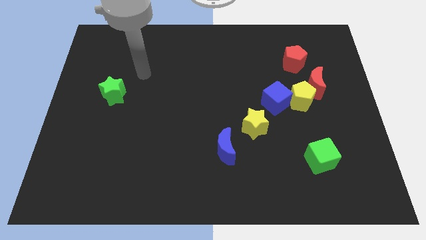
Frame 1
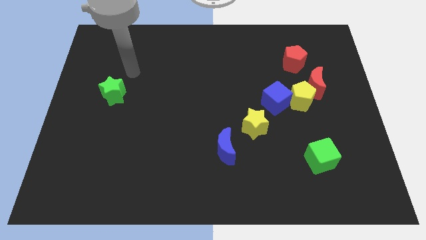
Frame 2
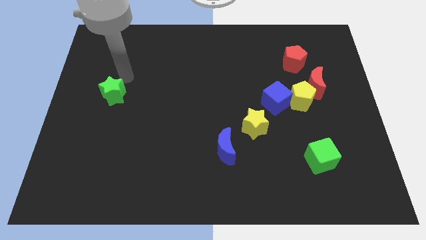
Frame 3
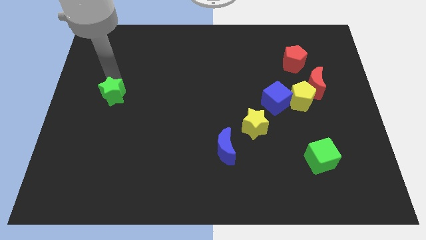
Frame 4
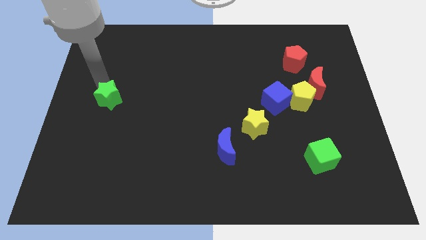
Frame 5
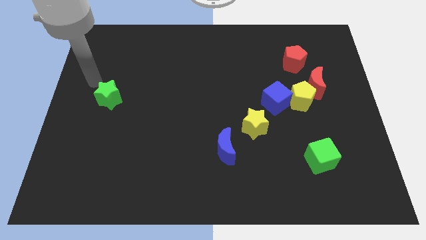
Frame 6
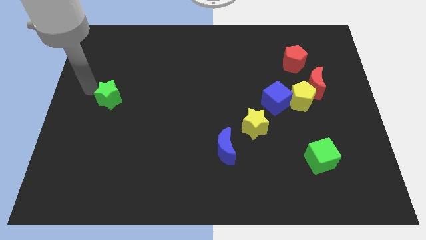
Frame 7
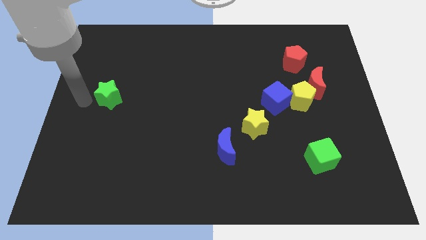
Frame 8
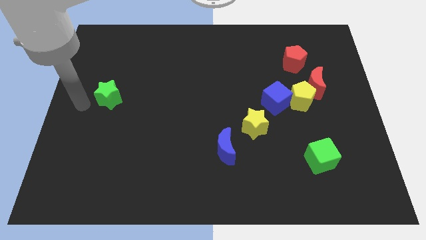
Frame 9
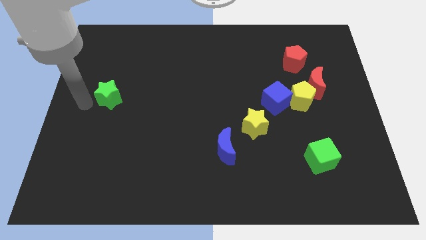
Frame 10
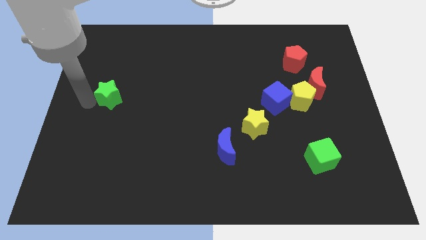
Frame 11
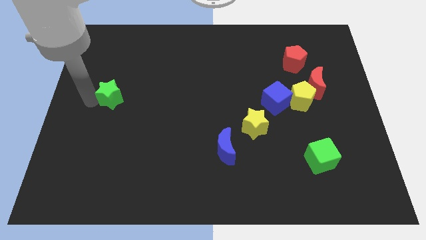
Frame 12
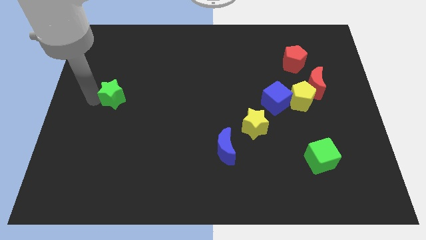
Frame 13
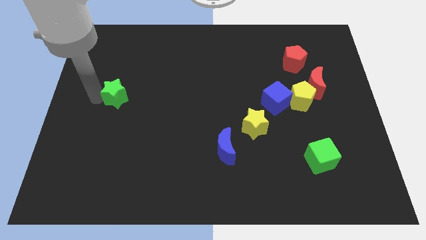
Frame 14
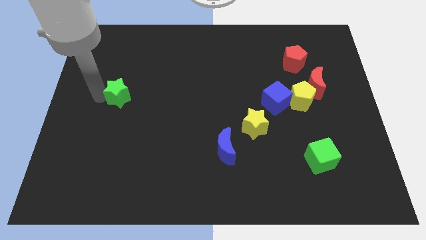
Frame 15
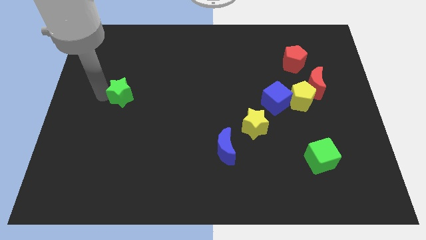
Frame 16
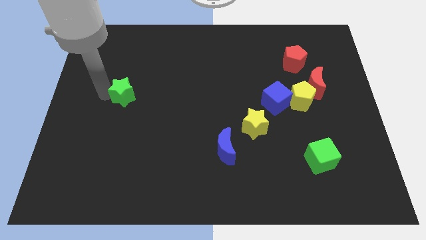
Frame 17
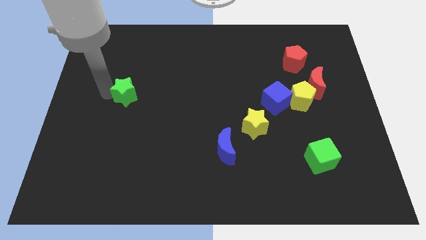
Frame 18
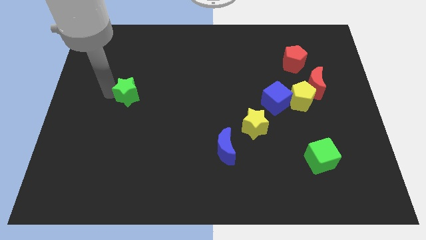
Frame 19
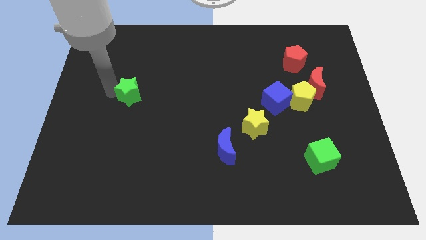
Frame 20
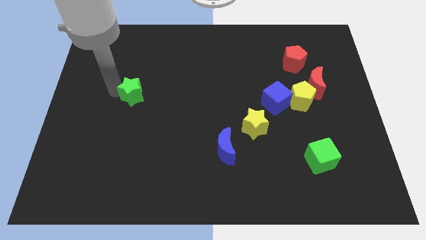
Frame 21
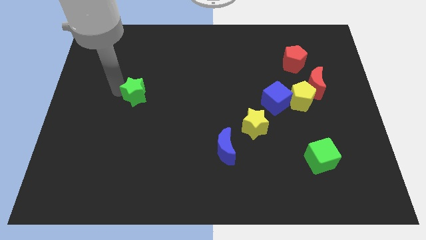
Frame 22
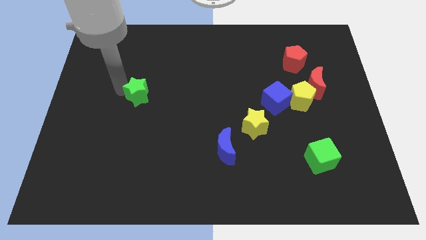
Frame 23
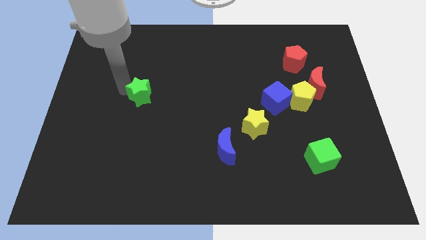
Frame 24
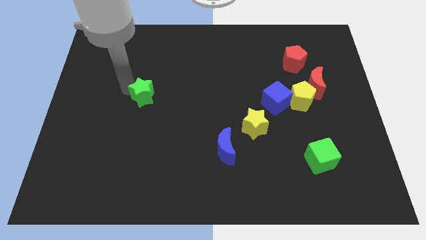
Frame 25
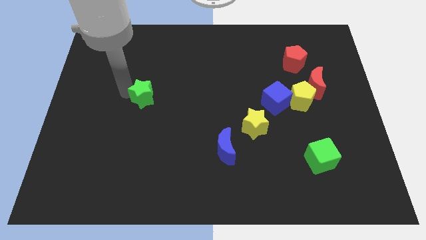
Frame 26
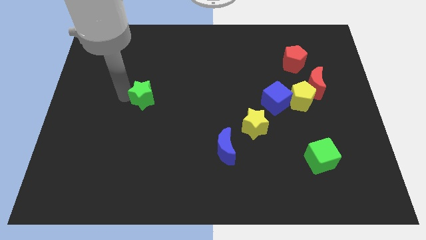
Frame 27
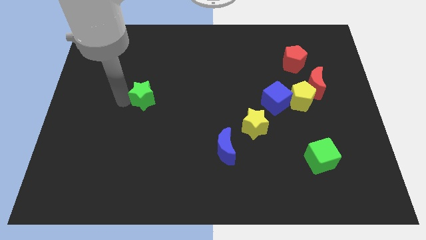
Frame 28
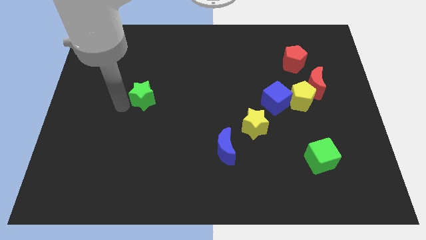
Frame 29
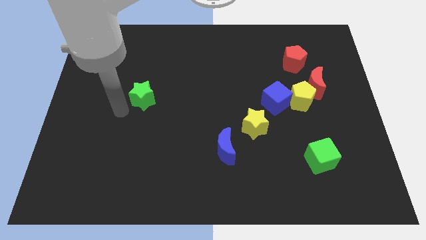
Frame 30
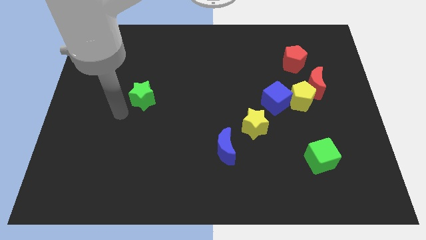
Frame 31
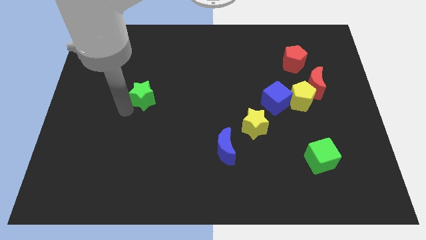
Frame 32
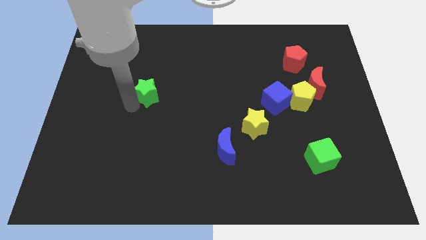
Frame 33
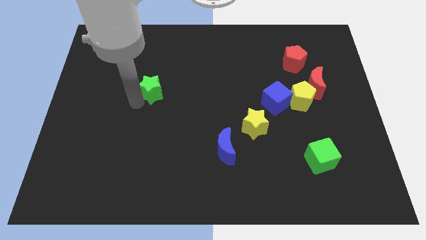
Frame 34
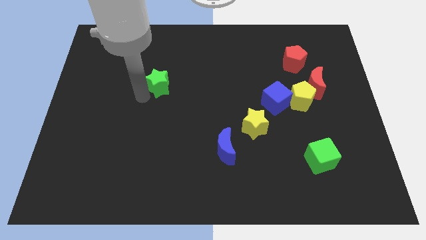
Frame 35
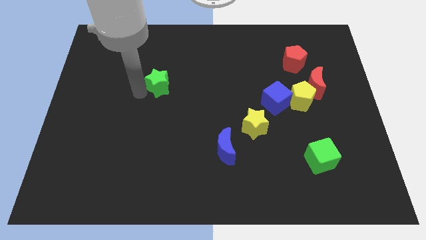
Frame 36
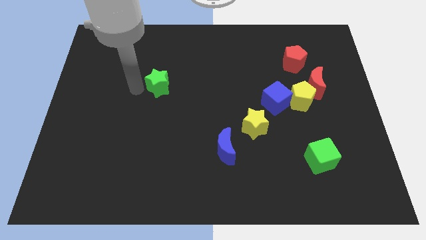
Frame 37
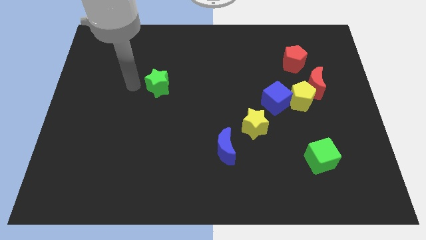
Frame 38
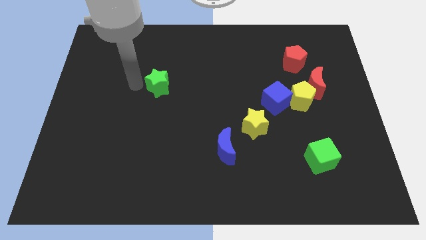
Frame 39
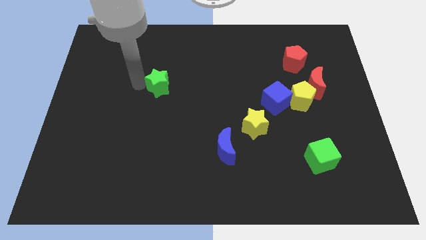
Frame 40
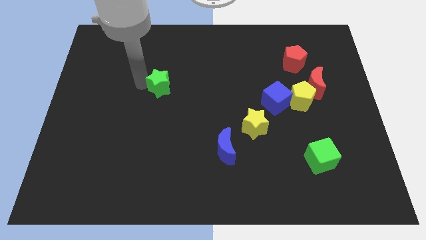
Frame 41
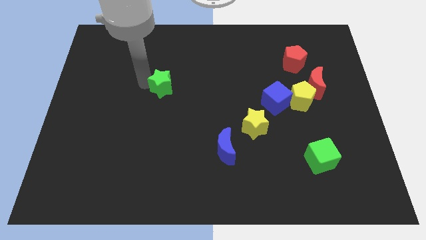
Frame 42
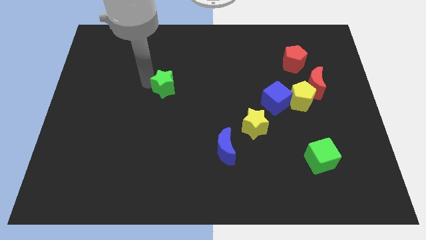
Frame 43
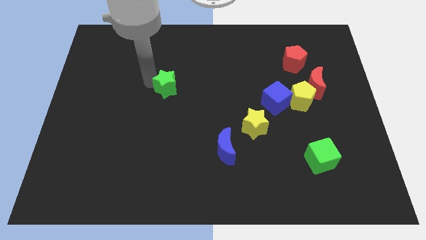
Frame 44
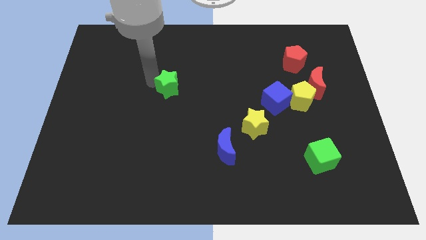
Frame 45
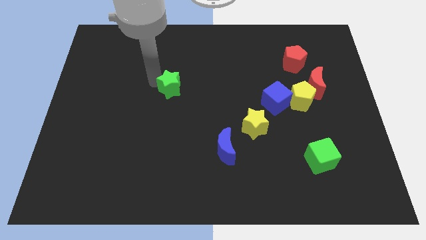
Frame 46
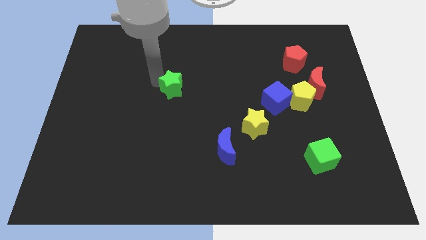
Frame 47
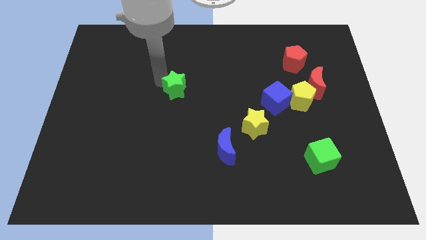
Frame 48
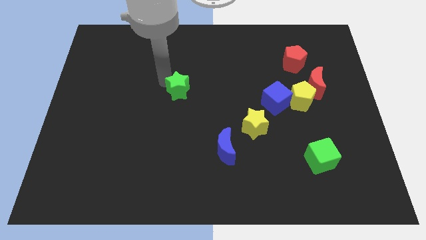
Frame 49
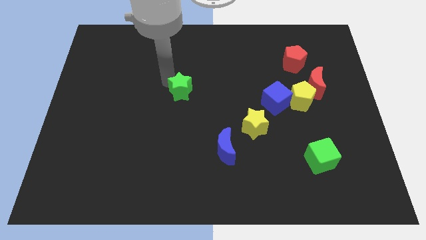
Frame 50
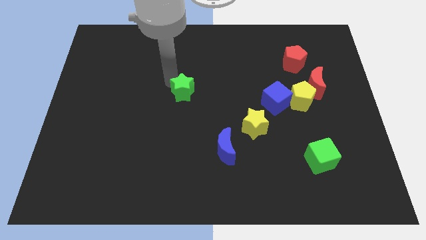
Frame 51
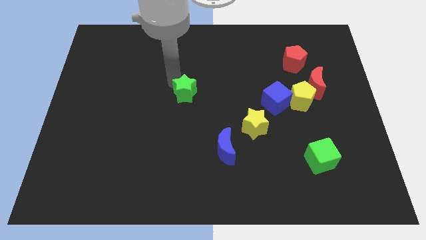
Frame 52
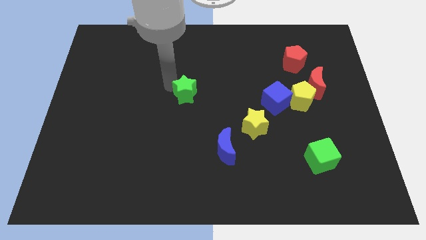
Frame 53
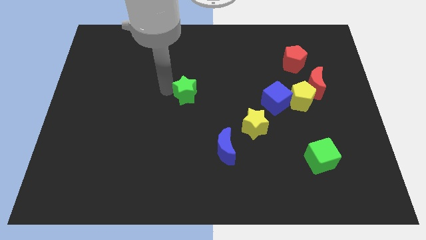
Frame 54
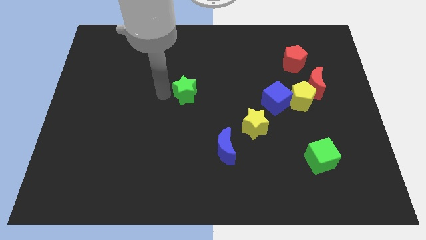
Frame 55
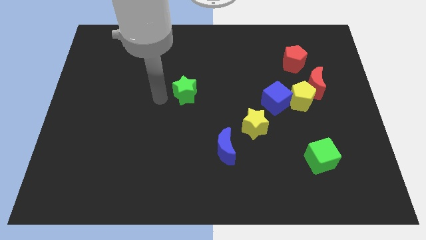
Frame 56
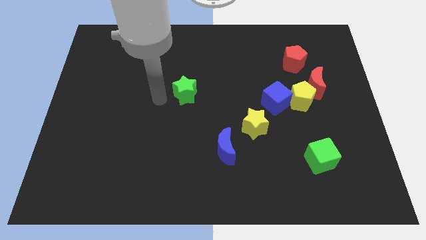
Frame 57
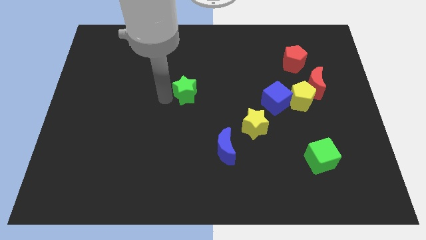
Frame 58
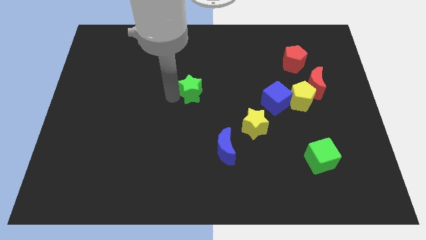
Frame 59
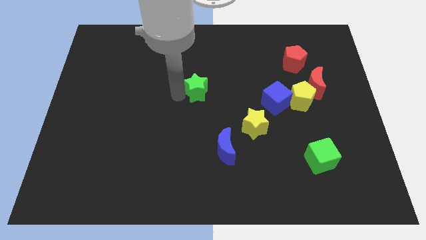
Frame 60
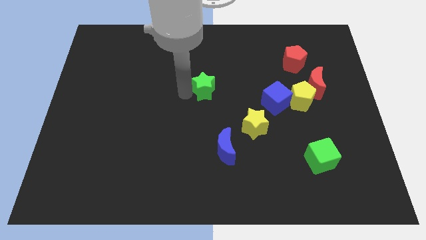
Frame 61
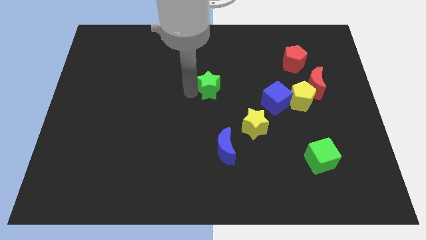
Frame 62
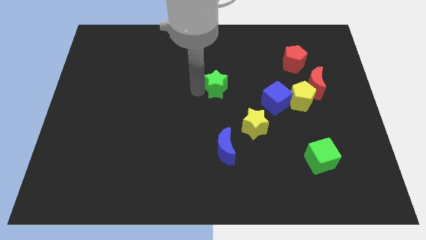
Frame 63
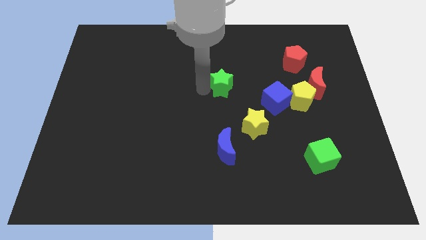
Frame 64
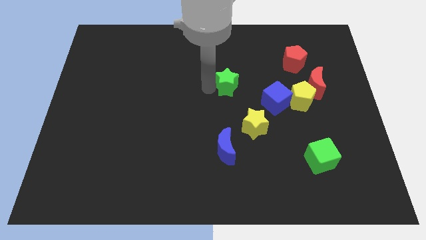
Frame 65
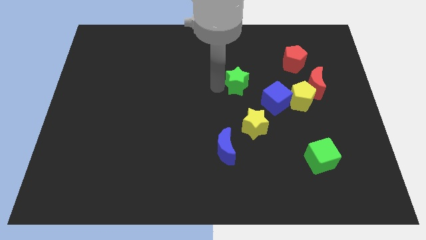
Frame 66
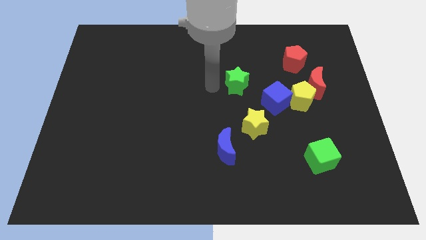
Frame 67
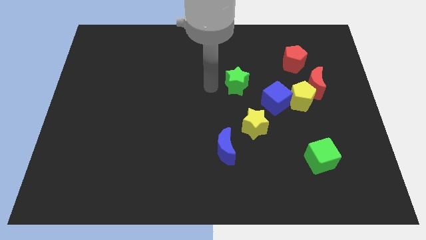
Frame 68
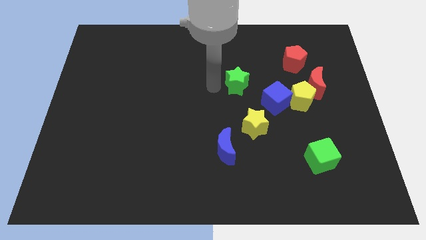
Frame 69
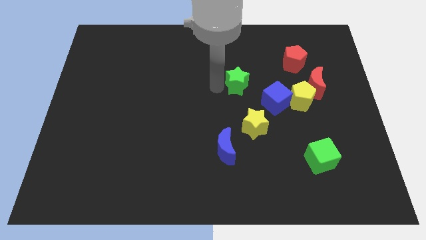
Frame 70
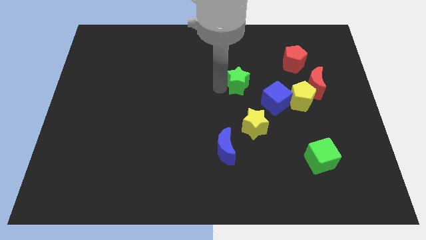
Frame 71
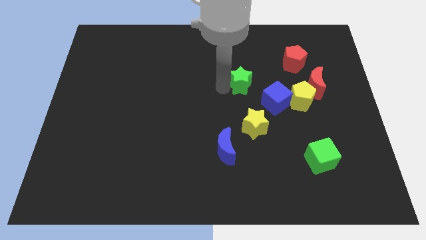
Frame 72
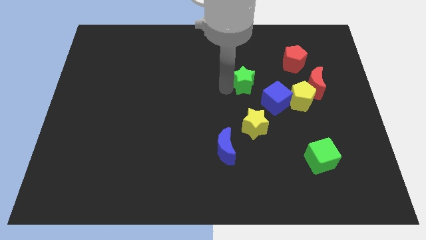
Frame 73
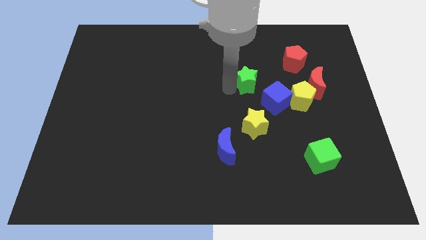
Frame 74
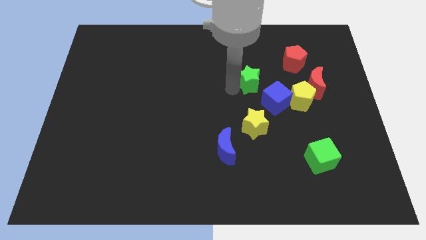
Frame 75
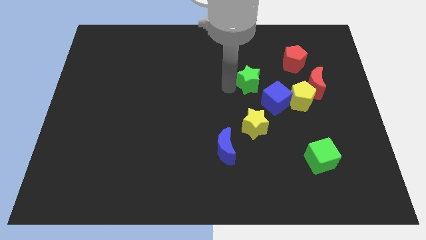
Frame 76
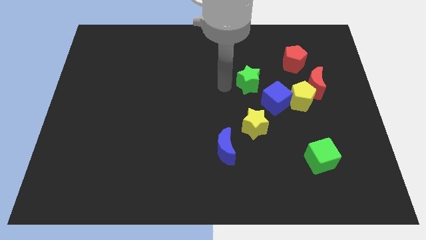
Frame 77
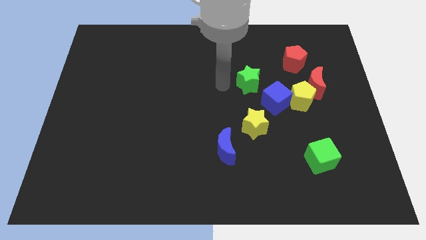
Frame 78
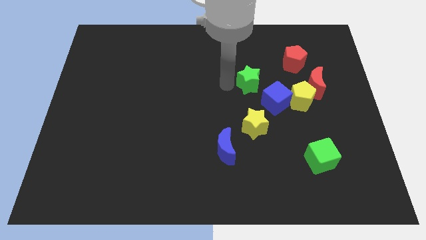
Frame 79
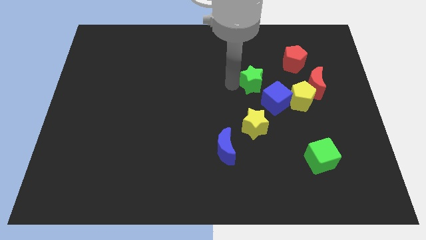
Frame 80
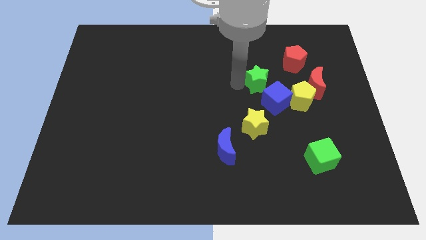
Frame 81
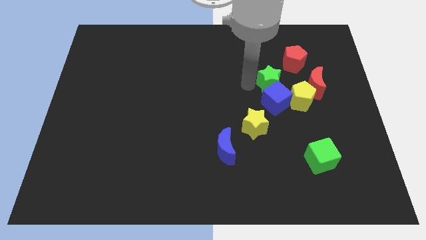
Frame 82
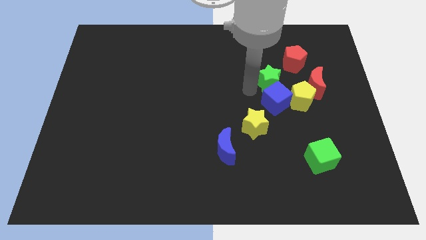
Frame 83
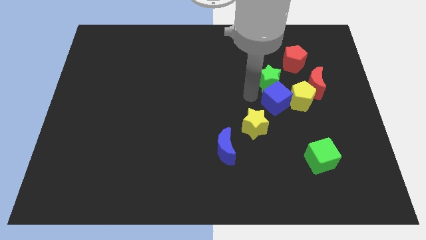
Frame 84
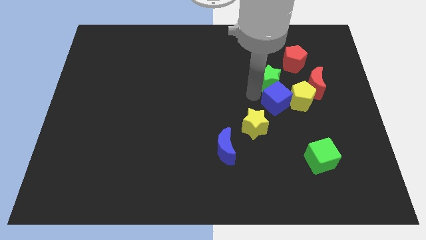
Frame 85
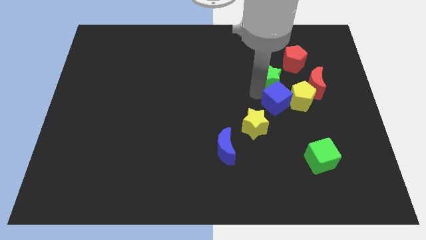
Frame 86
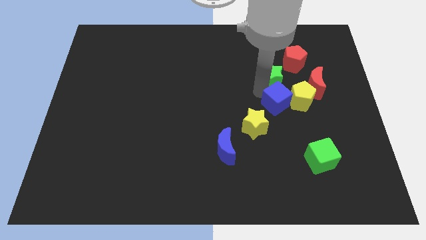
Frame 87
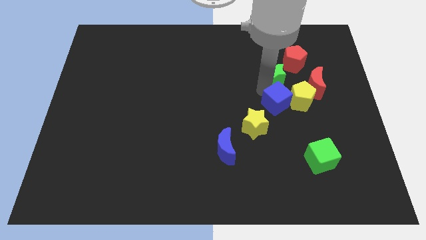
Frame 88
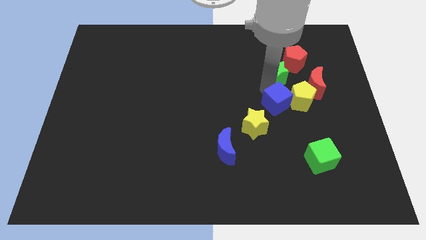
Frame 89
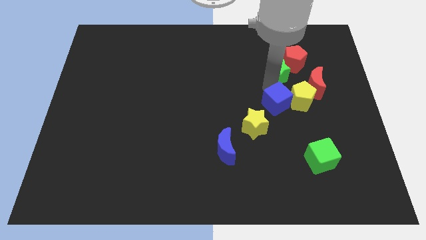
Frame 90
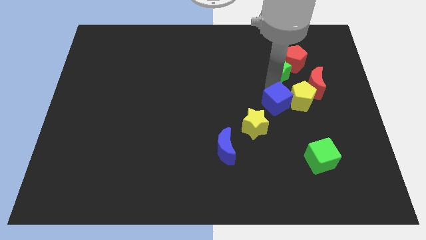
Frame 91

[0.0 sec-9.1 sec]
move the green star next to the red pentagon
